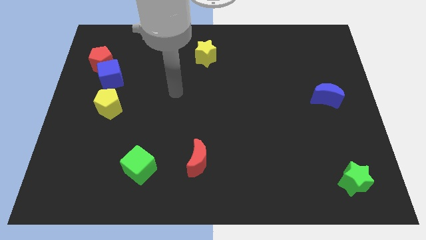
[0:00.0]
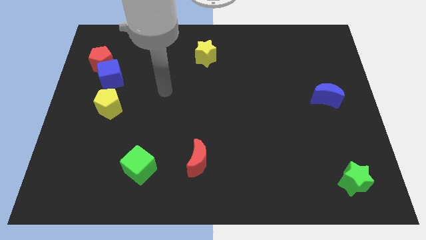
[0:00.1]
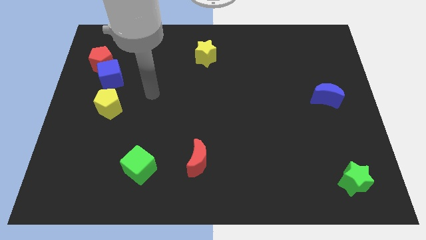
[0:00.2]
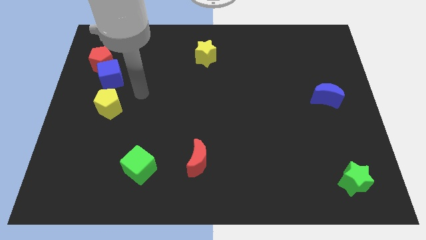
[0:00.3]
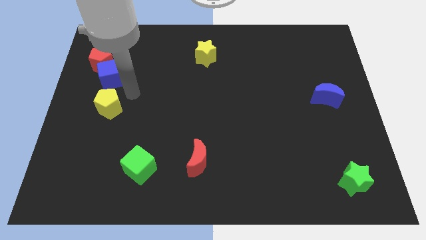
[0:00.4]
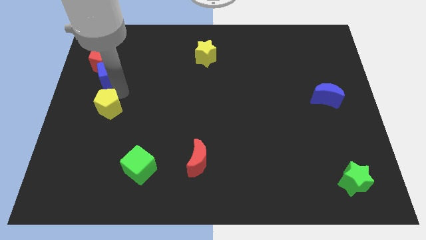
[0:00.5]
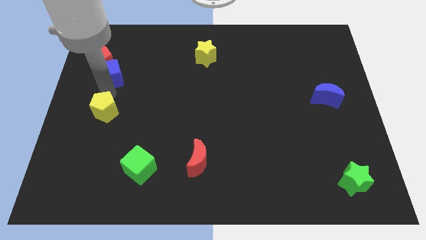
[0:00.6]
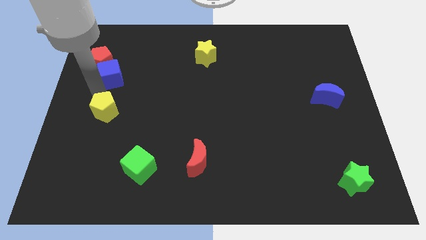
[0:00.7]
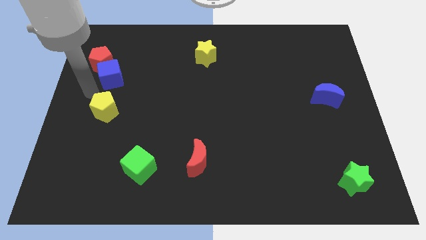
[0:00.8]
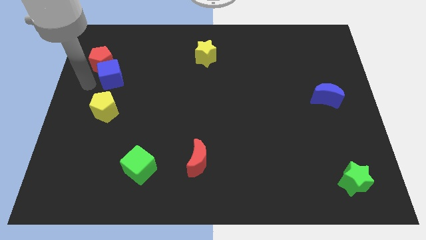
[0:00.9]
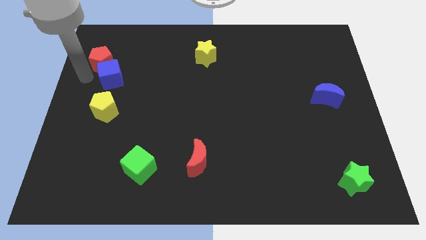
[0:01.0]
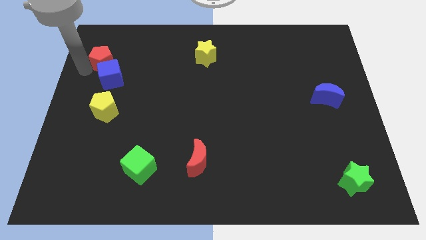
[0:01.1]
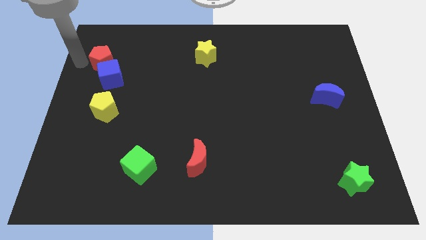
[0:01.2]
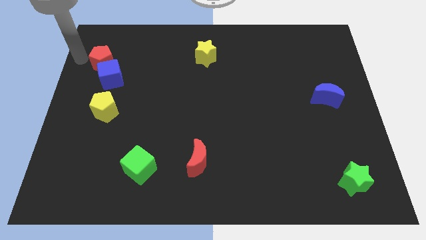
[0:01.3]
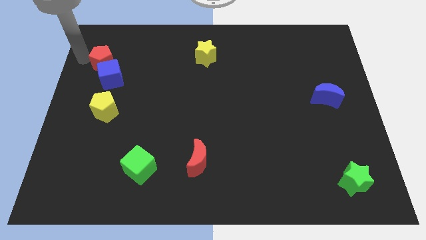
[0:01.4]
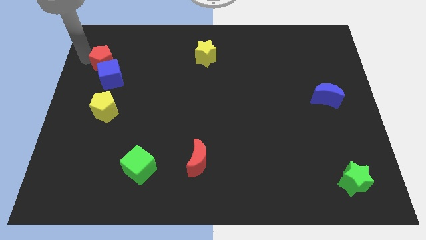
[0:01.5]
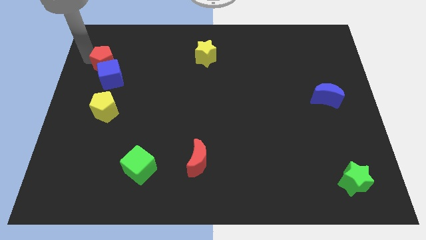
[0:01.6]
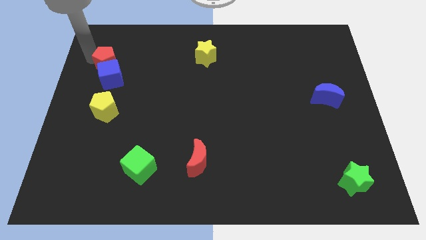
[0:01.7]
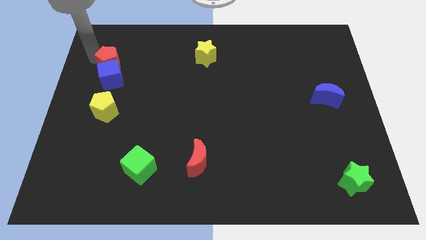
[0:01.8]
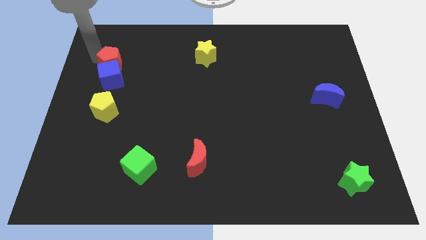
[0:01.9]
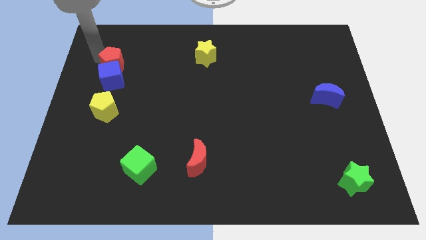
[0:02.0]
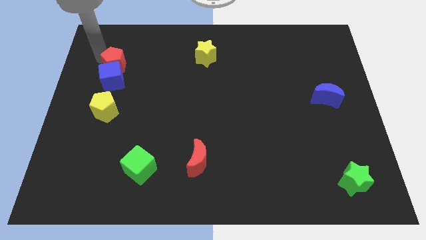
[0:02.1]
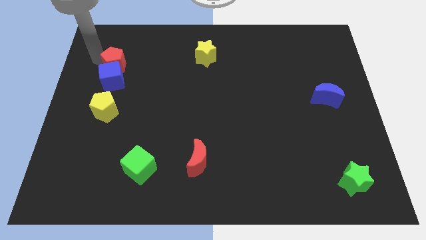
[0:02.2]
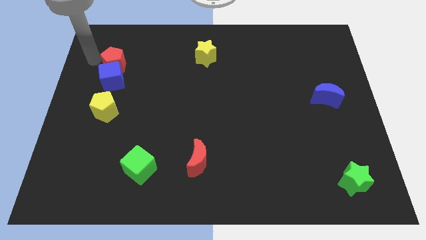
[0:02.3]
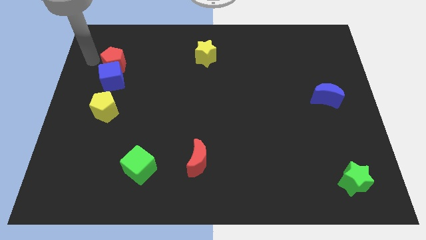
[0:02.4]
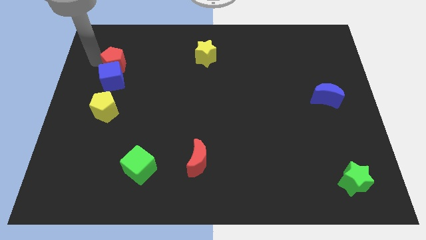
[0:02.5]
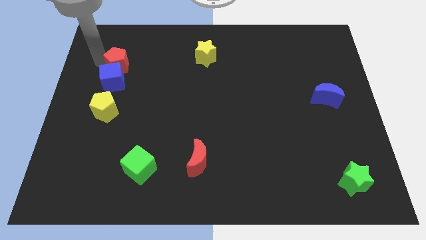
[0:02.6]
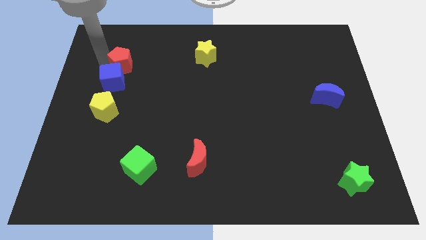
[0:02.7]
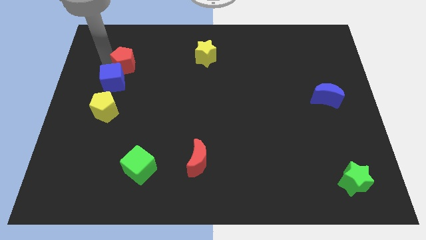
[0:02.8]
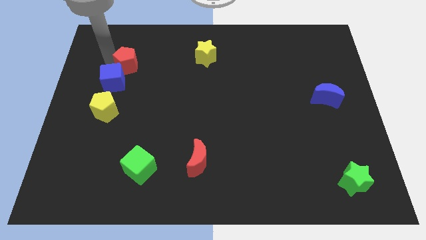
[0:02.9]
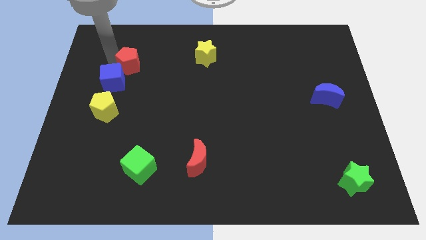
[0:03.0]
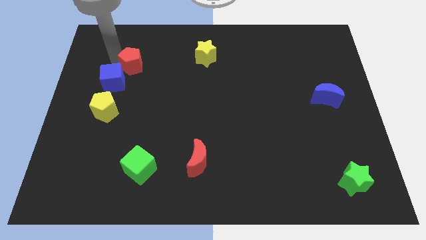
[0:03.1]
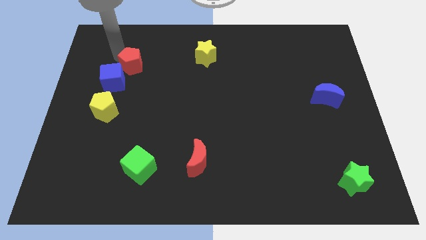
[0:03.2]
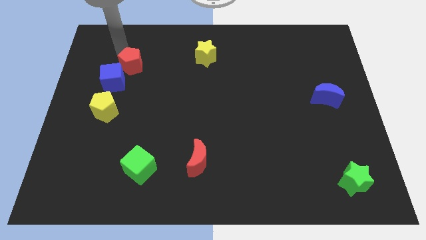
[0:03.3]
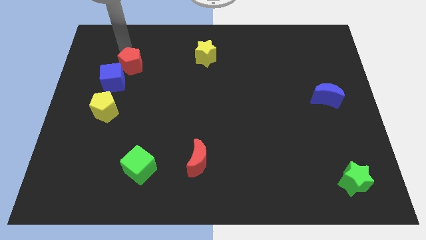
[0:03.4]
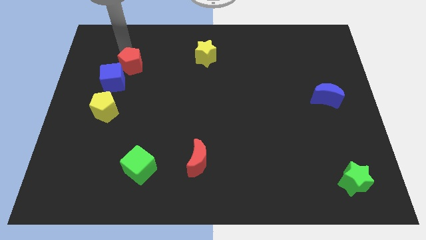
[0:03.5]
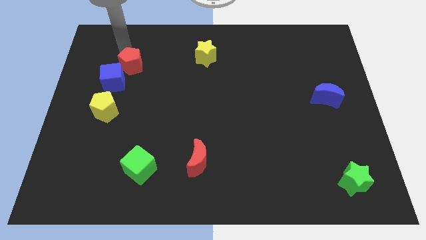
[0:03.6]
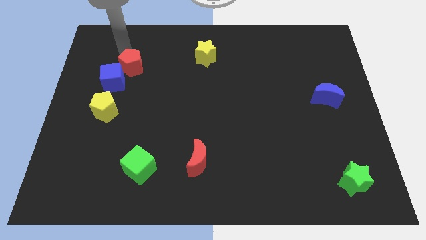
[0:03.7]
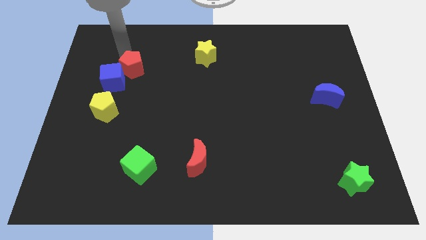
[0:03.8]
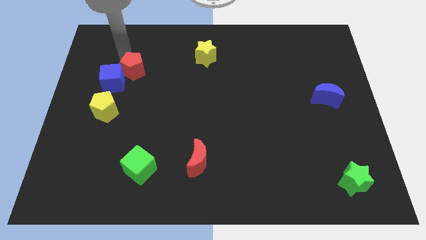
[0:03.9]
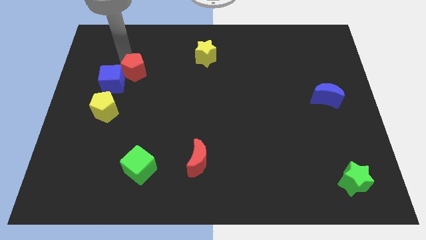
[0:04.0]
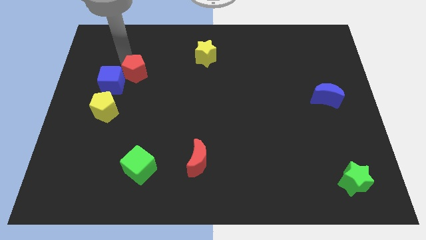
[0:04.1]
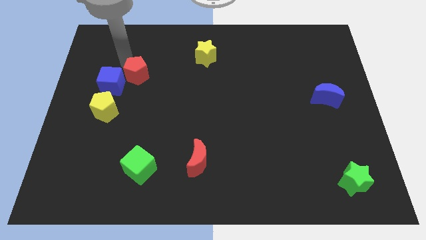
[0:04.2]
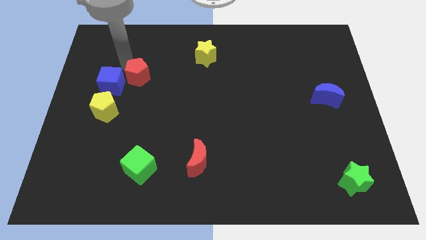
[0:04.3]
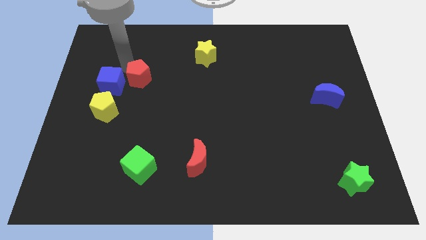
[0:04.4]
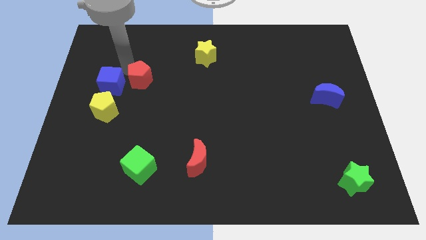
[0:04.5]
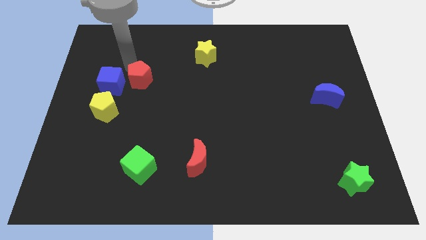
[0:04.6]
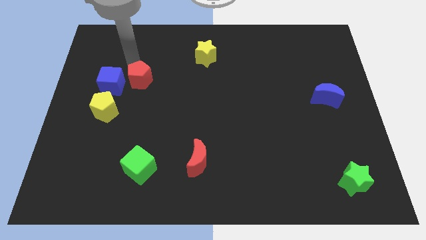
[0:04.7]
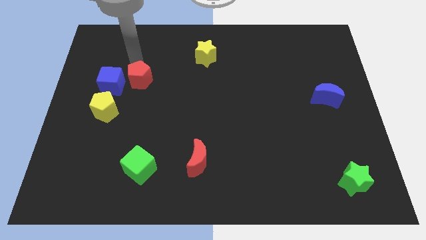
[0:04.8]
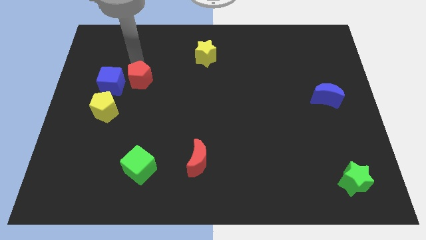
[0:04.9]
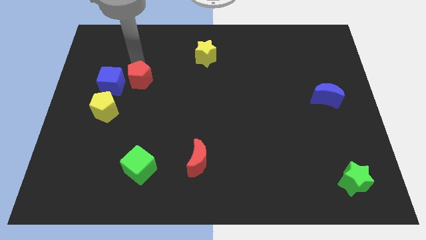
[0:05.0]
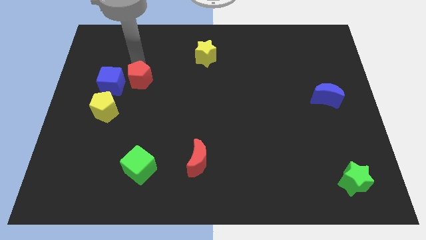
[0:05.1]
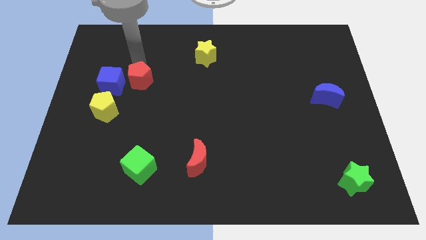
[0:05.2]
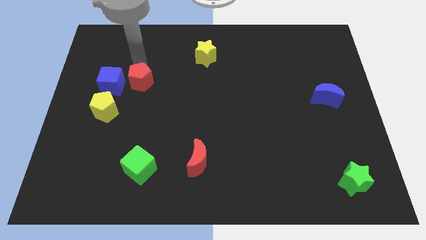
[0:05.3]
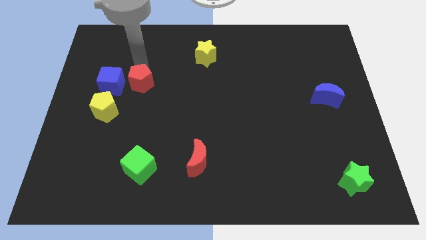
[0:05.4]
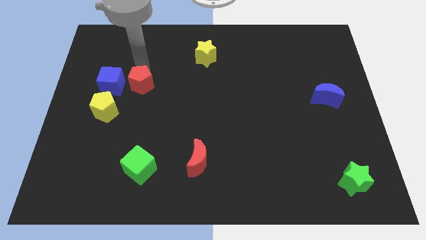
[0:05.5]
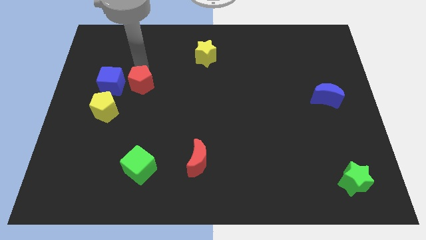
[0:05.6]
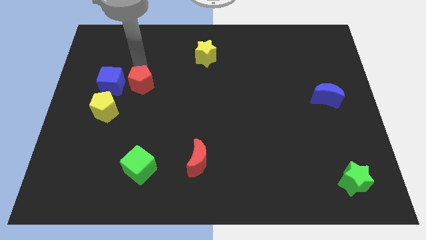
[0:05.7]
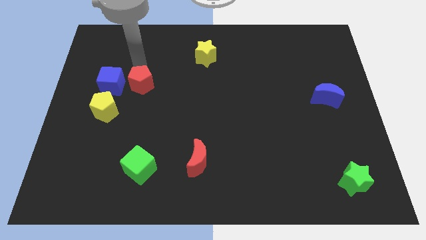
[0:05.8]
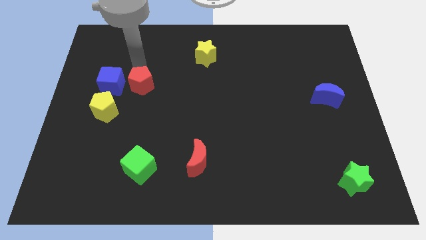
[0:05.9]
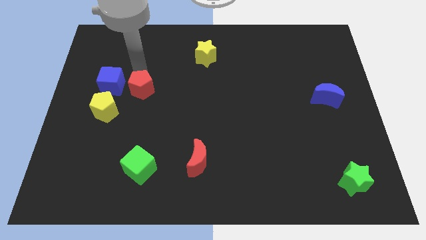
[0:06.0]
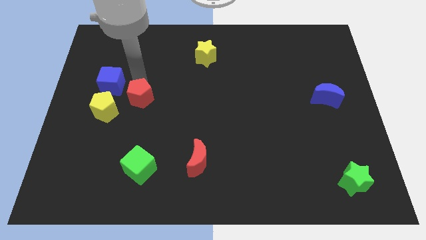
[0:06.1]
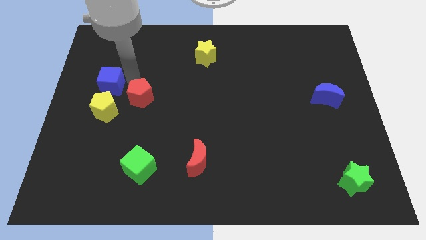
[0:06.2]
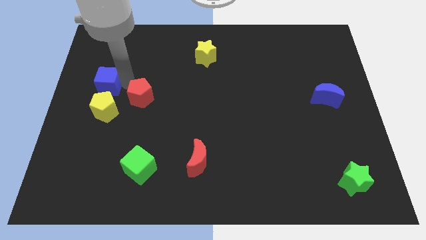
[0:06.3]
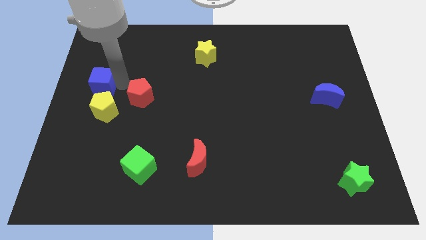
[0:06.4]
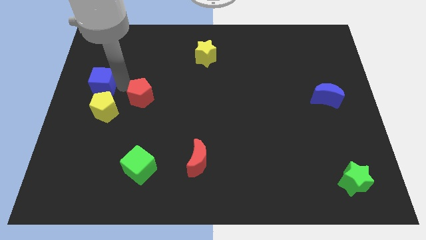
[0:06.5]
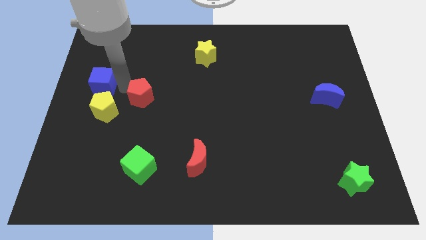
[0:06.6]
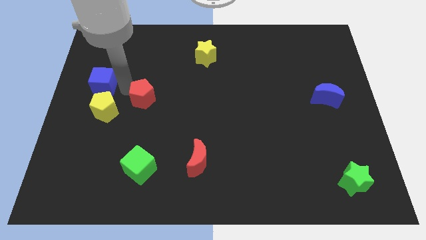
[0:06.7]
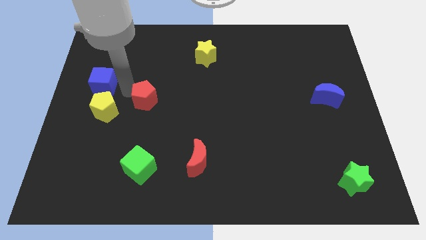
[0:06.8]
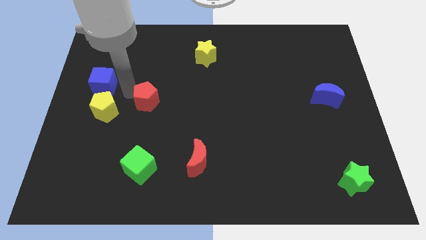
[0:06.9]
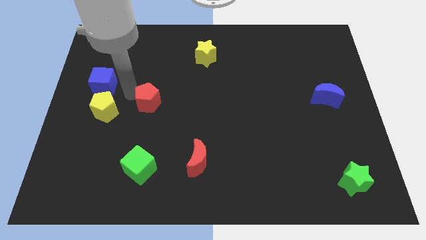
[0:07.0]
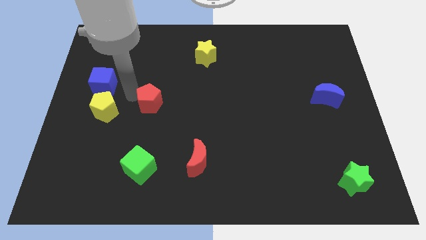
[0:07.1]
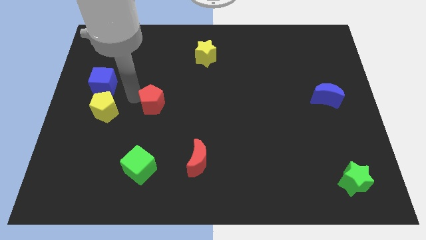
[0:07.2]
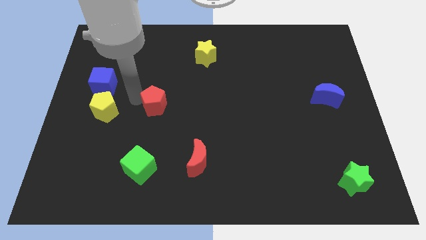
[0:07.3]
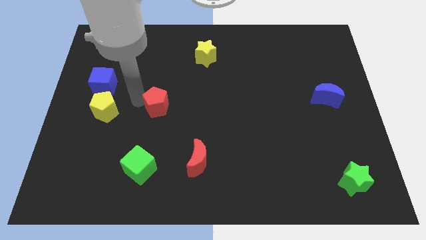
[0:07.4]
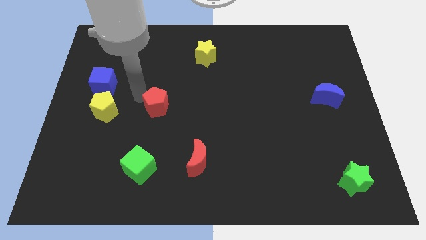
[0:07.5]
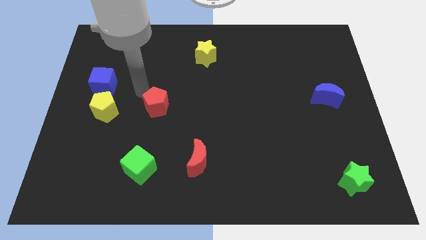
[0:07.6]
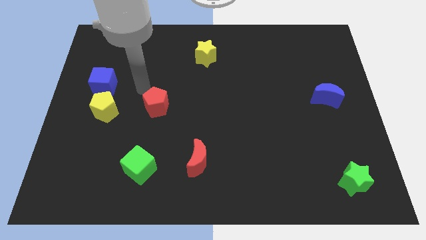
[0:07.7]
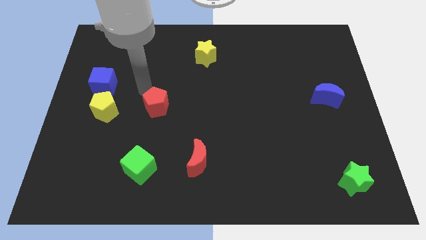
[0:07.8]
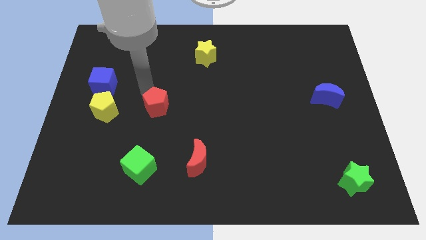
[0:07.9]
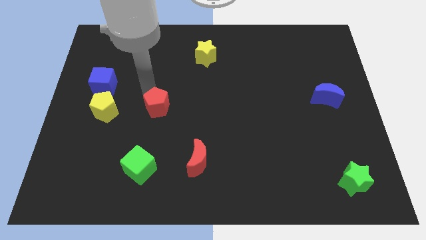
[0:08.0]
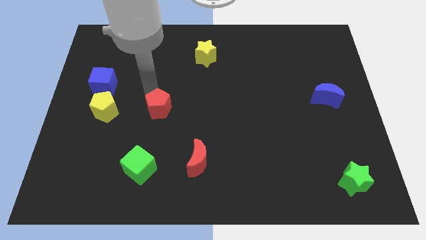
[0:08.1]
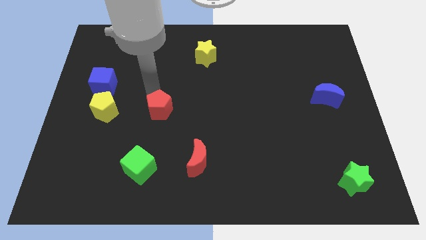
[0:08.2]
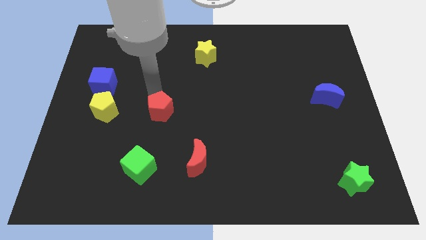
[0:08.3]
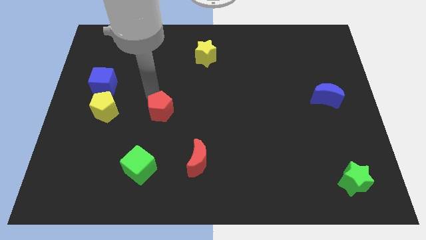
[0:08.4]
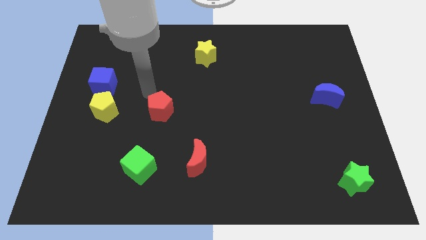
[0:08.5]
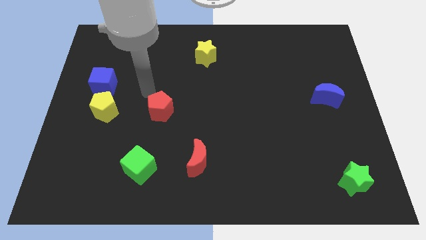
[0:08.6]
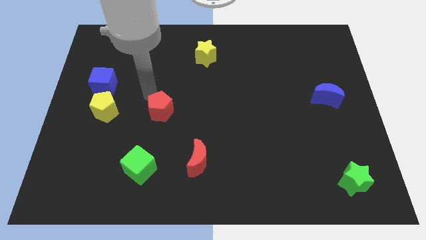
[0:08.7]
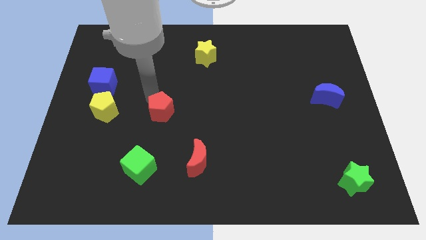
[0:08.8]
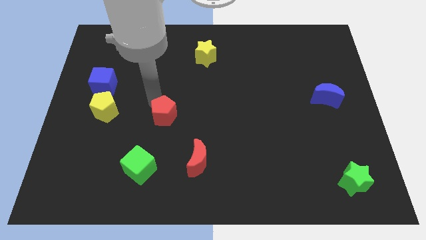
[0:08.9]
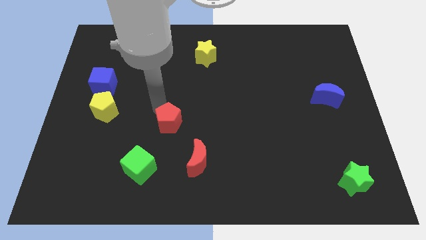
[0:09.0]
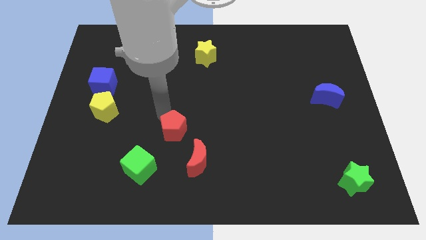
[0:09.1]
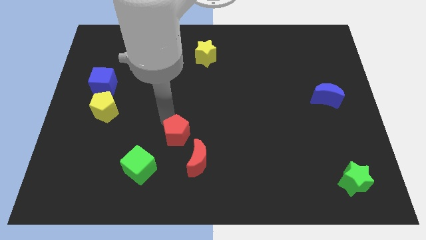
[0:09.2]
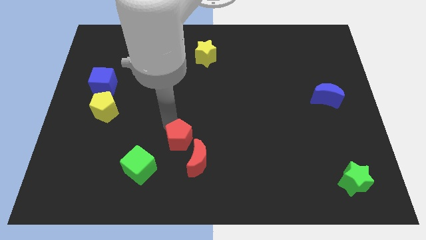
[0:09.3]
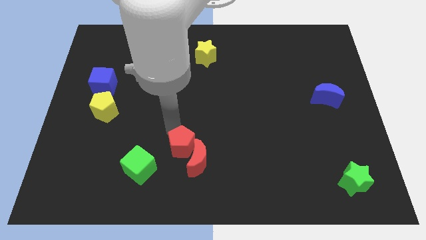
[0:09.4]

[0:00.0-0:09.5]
slide the red pentagon next to the red moon
